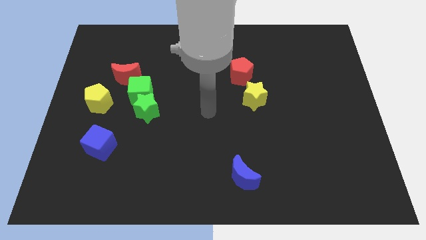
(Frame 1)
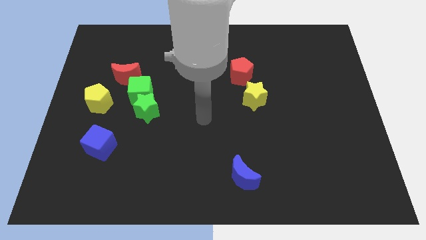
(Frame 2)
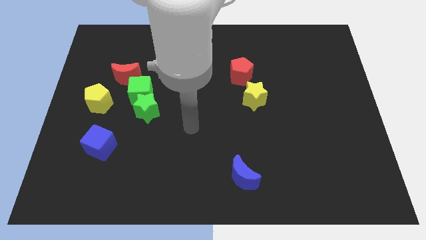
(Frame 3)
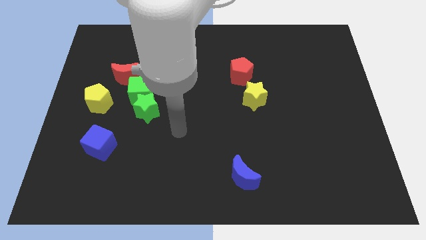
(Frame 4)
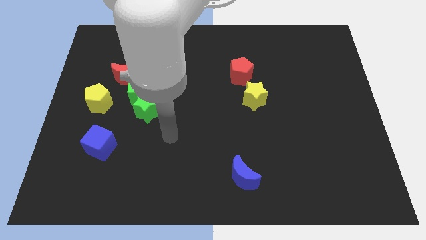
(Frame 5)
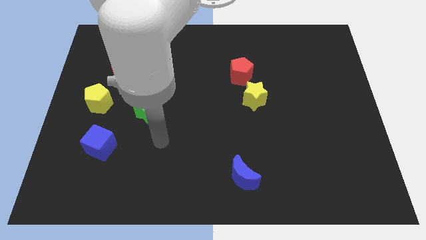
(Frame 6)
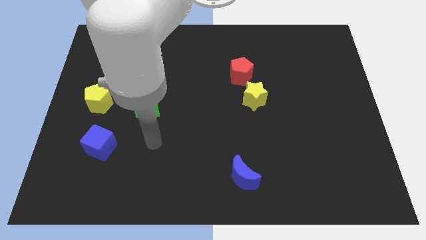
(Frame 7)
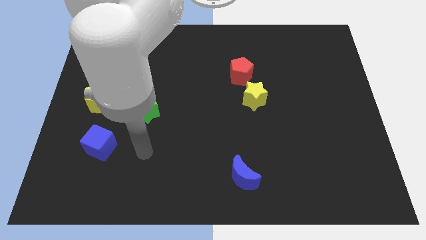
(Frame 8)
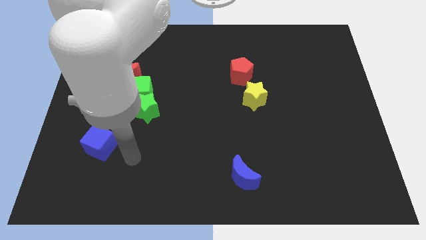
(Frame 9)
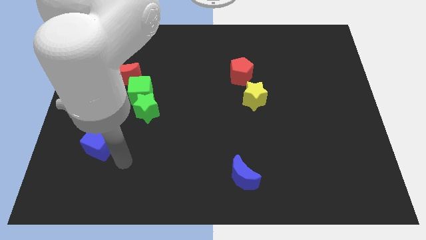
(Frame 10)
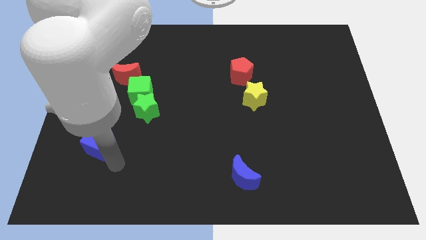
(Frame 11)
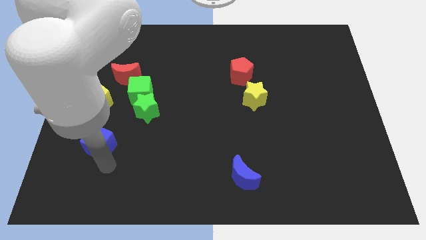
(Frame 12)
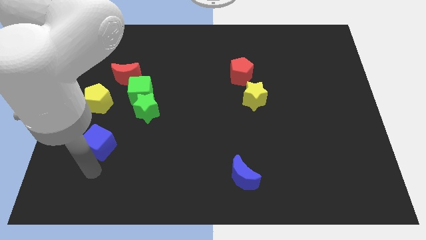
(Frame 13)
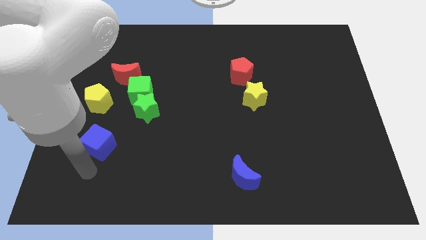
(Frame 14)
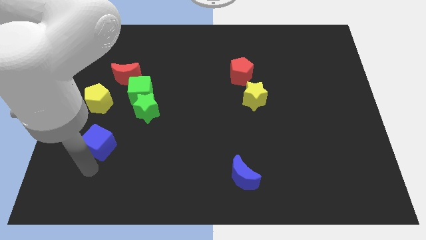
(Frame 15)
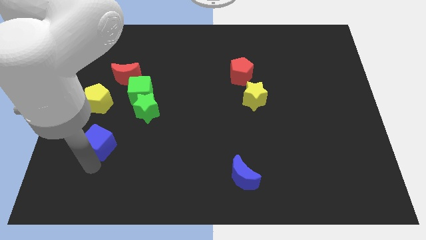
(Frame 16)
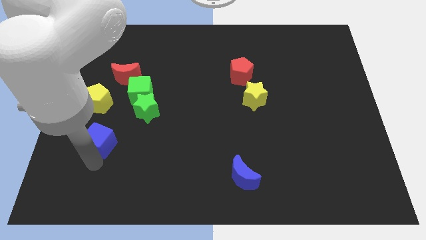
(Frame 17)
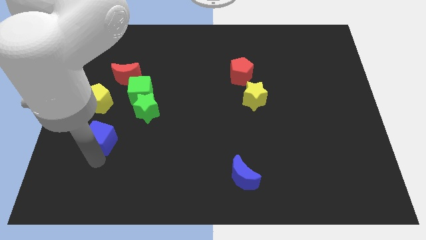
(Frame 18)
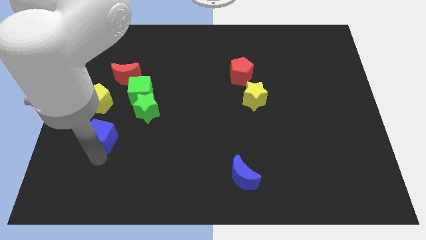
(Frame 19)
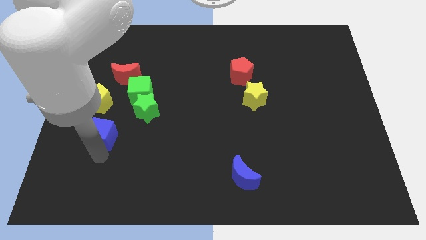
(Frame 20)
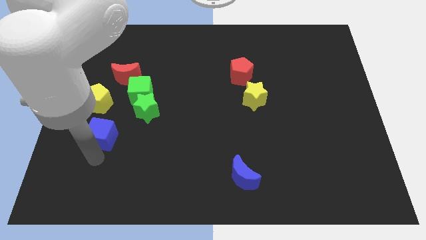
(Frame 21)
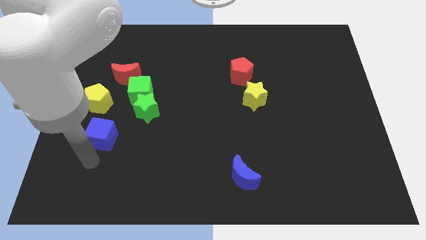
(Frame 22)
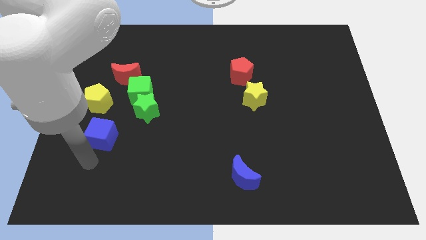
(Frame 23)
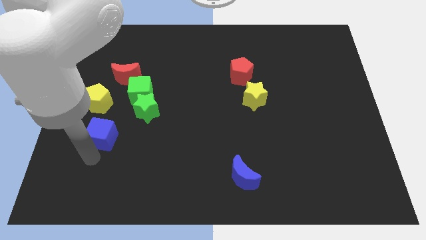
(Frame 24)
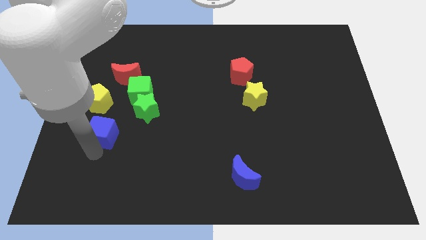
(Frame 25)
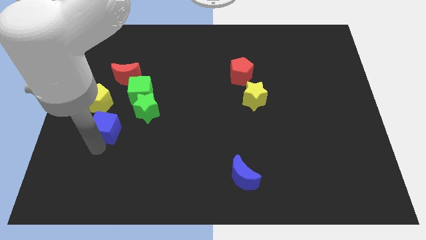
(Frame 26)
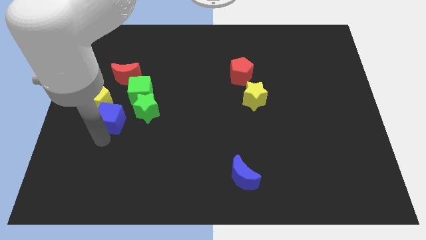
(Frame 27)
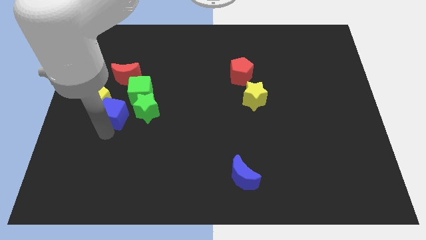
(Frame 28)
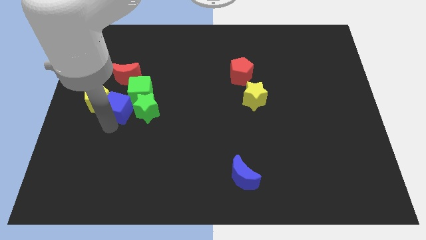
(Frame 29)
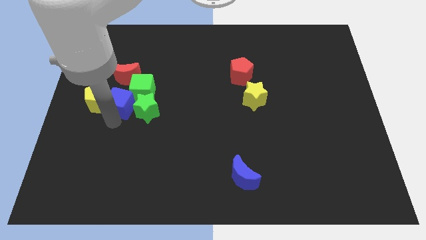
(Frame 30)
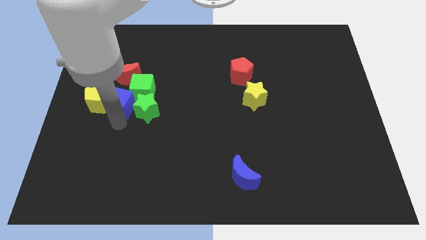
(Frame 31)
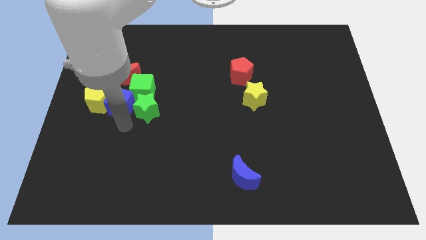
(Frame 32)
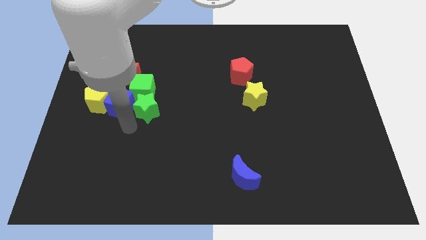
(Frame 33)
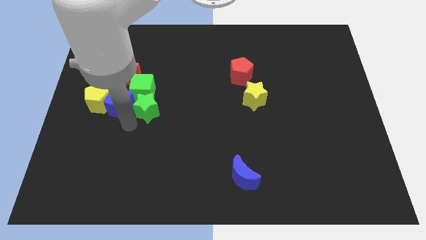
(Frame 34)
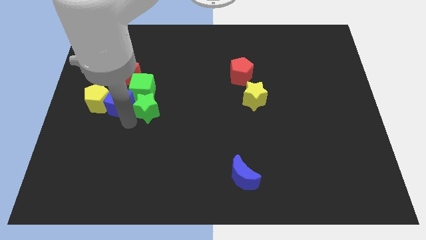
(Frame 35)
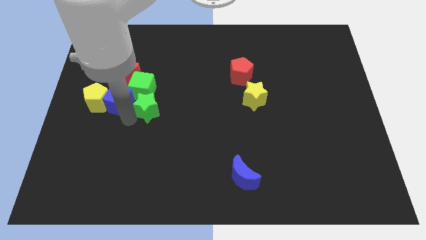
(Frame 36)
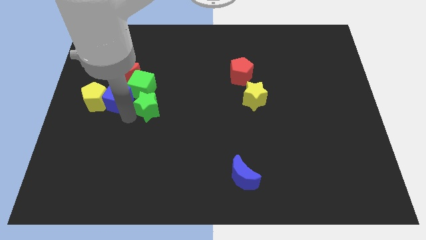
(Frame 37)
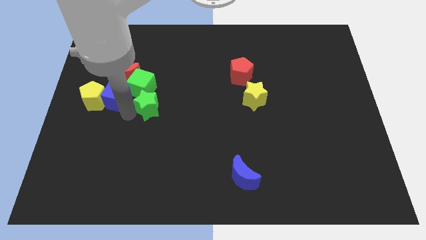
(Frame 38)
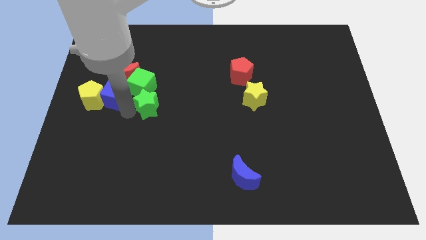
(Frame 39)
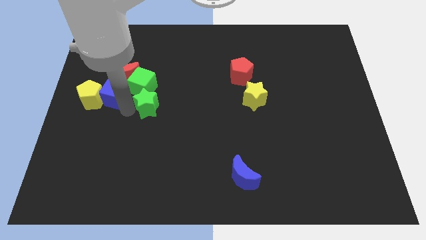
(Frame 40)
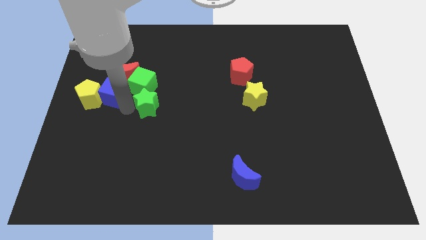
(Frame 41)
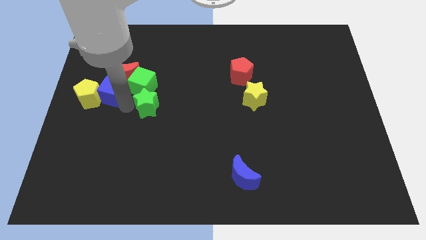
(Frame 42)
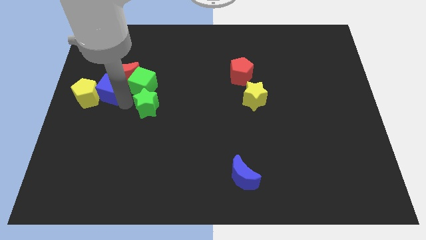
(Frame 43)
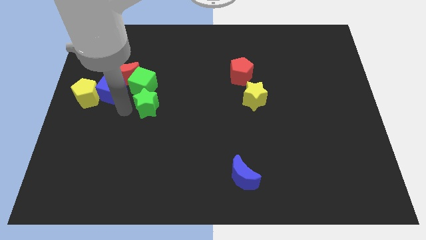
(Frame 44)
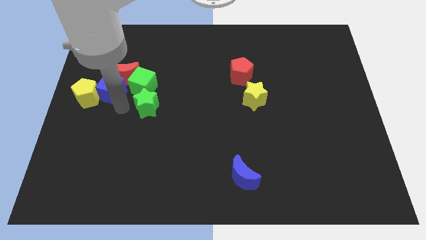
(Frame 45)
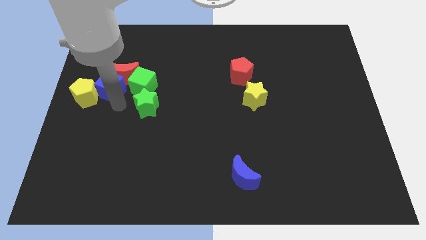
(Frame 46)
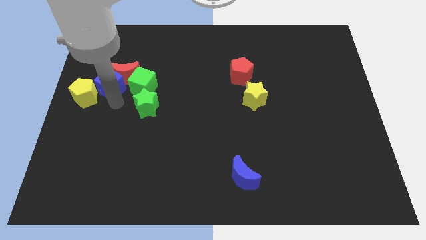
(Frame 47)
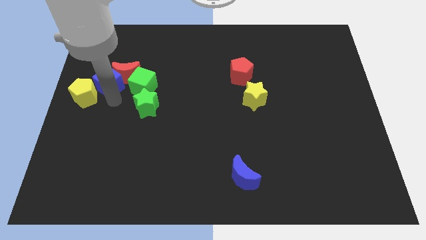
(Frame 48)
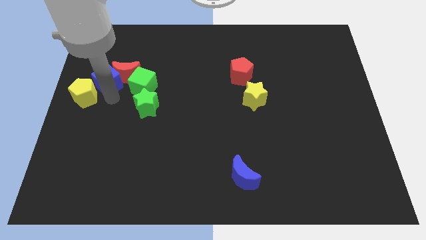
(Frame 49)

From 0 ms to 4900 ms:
slide the blue cube to the top of the yellow pentagon

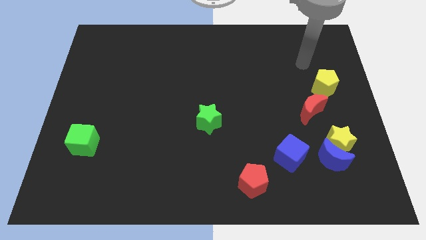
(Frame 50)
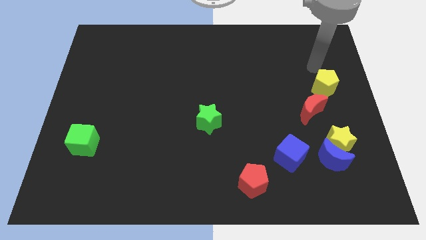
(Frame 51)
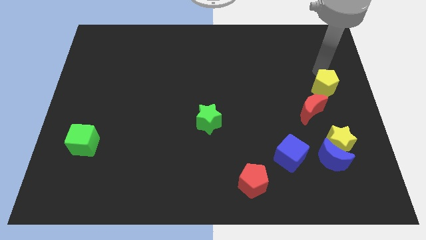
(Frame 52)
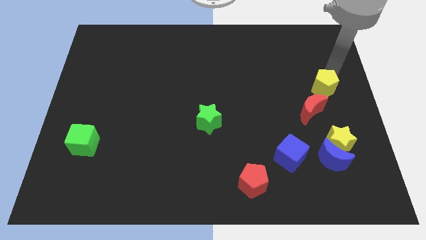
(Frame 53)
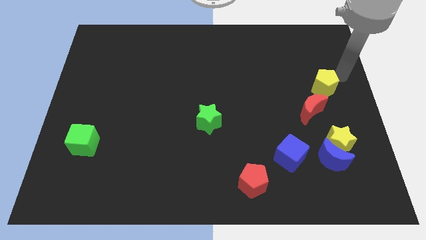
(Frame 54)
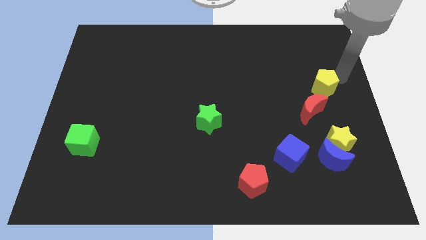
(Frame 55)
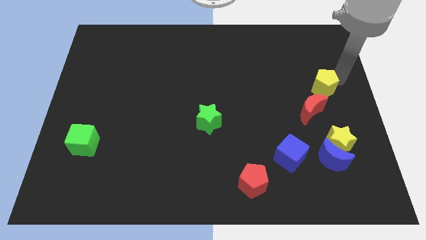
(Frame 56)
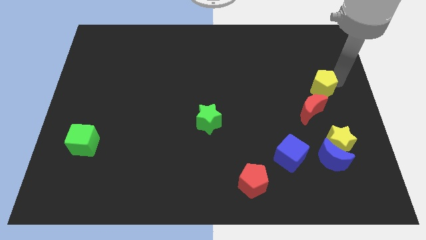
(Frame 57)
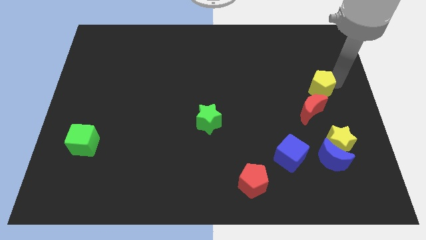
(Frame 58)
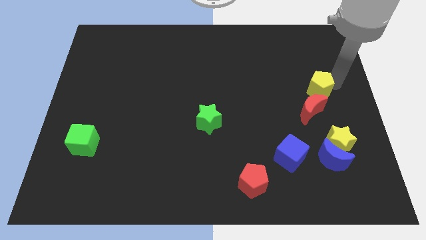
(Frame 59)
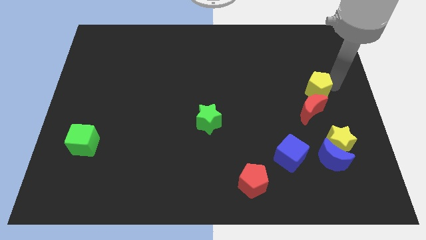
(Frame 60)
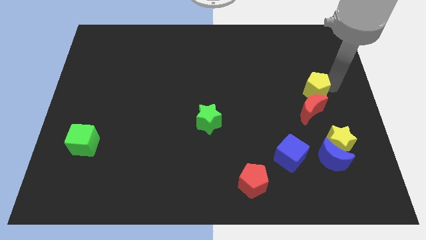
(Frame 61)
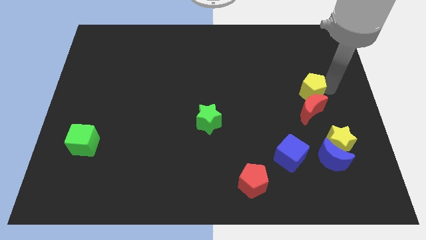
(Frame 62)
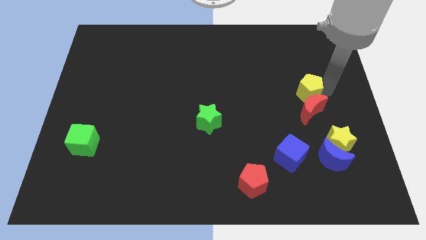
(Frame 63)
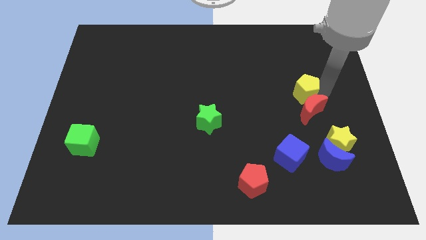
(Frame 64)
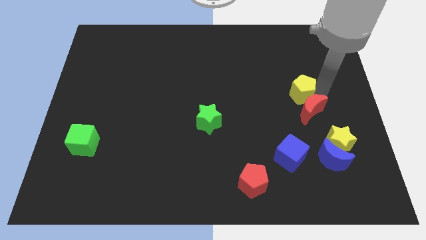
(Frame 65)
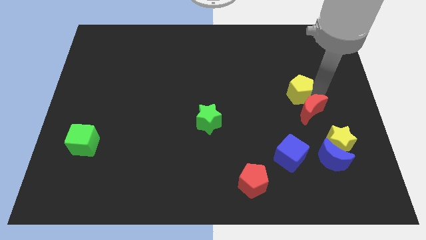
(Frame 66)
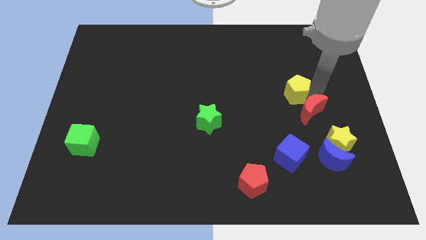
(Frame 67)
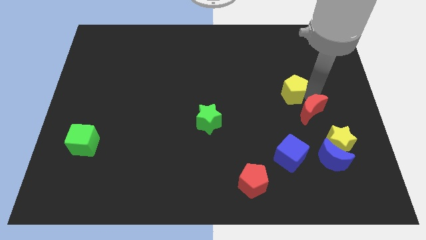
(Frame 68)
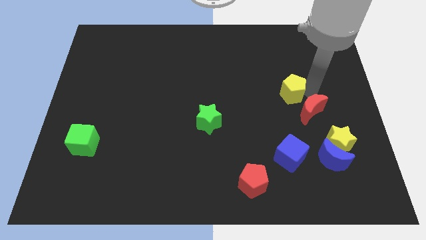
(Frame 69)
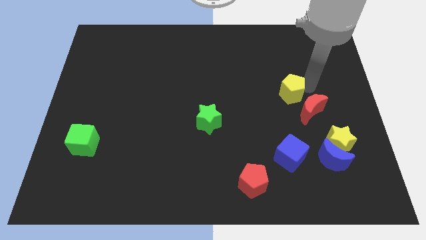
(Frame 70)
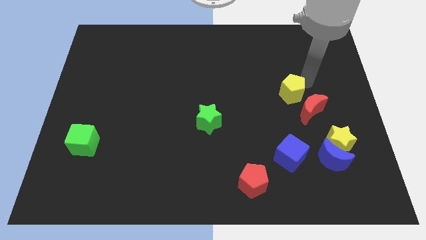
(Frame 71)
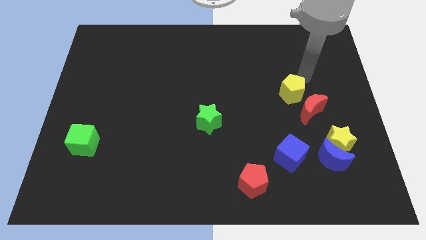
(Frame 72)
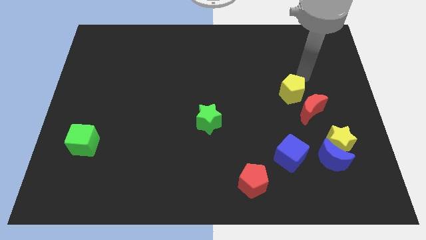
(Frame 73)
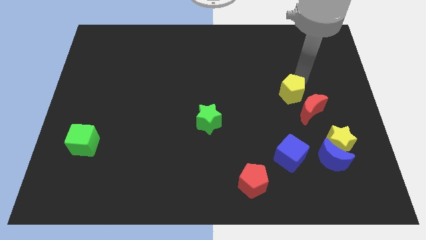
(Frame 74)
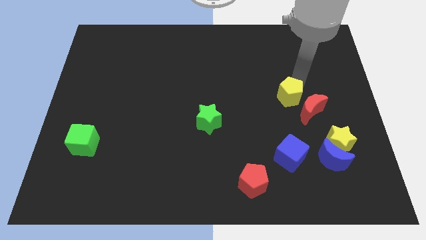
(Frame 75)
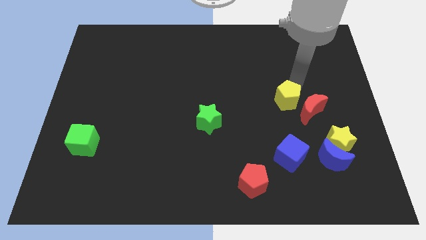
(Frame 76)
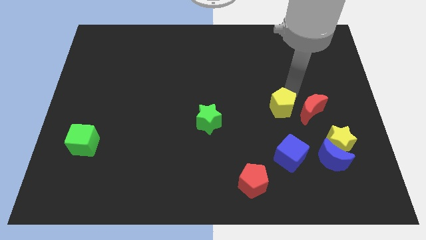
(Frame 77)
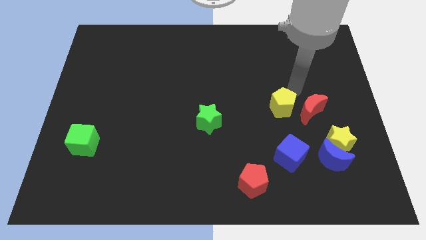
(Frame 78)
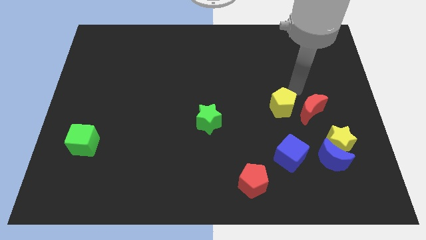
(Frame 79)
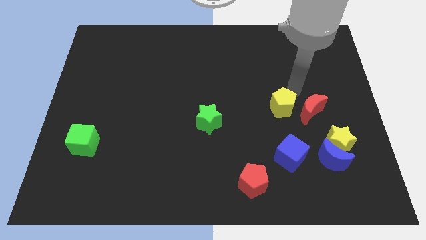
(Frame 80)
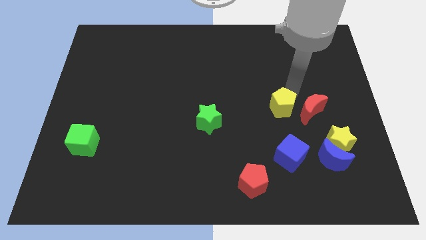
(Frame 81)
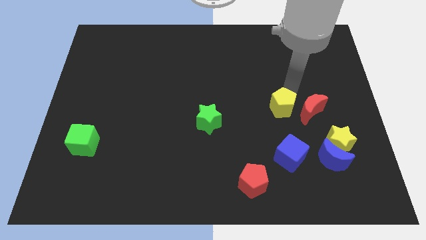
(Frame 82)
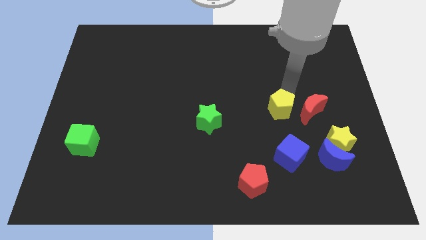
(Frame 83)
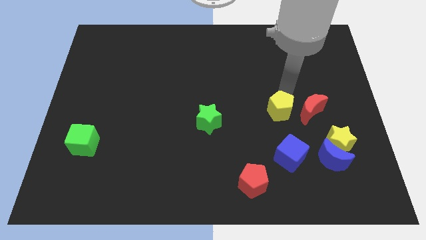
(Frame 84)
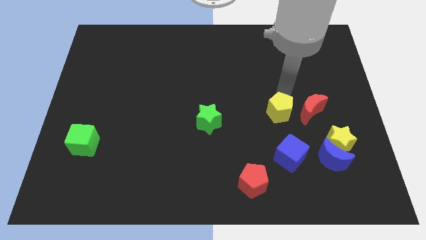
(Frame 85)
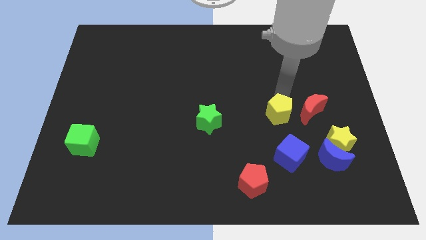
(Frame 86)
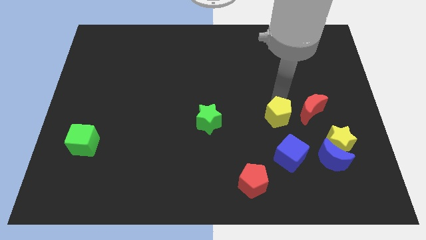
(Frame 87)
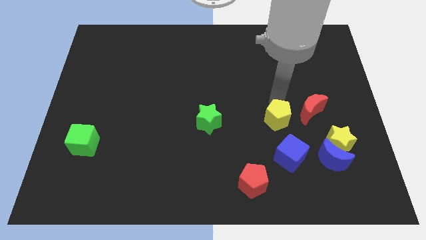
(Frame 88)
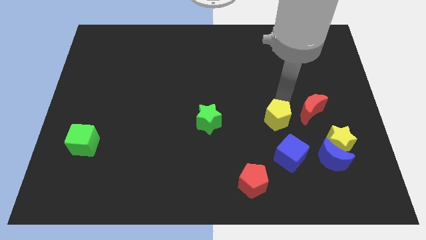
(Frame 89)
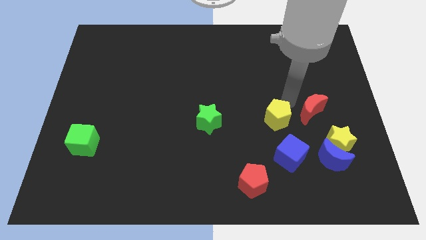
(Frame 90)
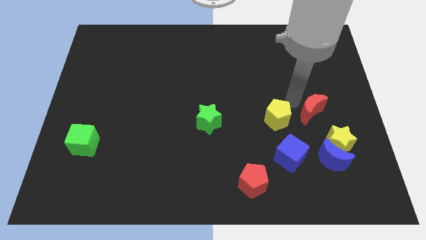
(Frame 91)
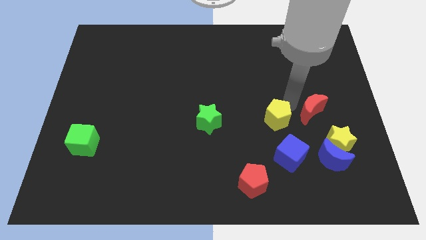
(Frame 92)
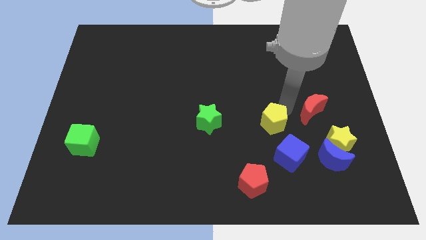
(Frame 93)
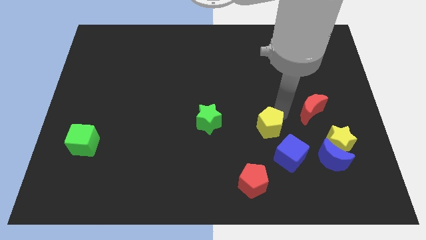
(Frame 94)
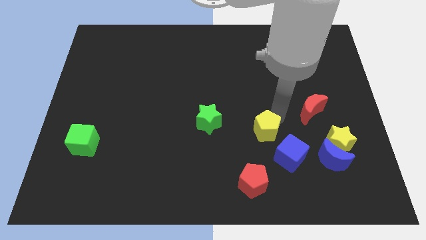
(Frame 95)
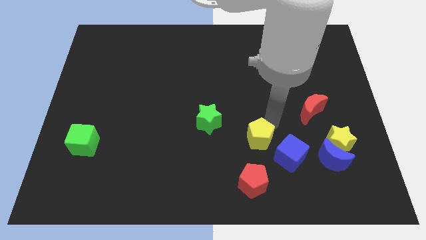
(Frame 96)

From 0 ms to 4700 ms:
put the yellow pentagon left of the blue cube
